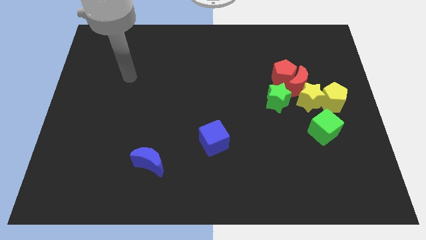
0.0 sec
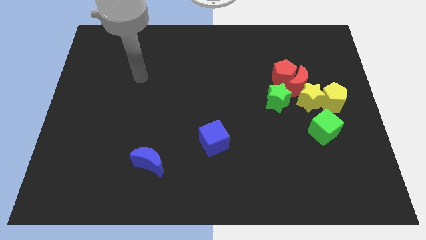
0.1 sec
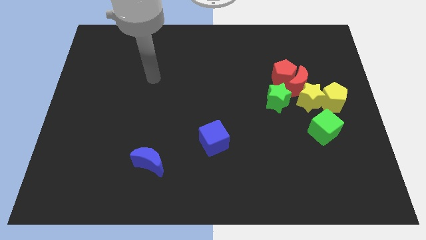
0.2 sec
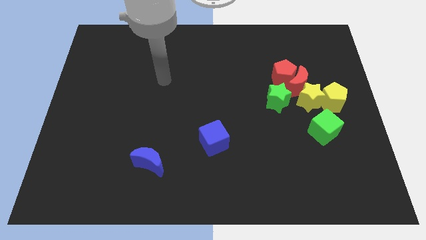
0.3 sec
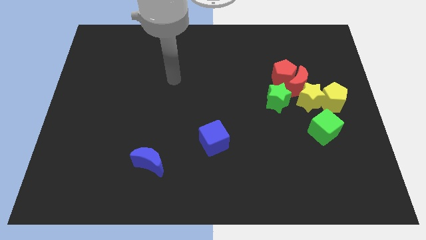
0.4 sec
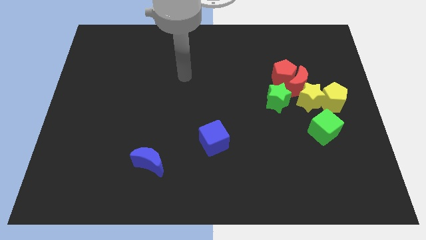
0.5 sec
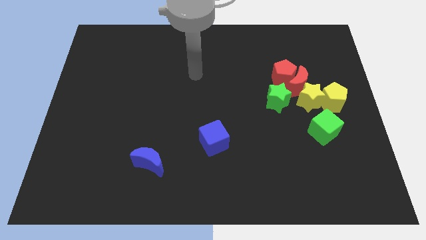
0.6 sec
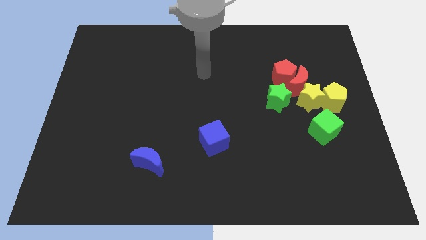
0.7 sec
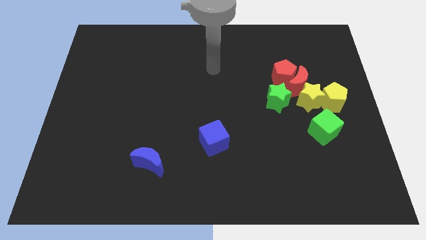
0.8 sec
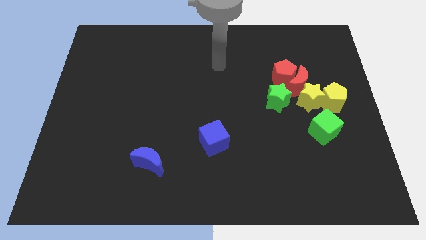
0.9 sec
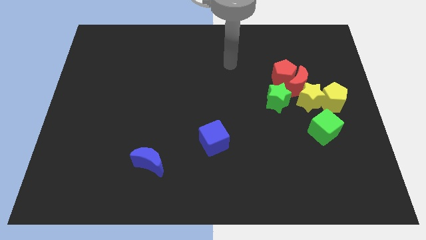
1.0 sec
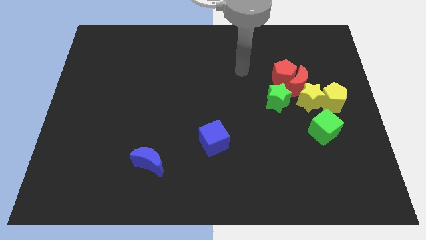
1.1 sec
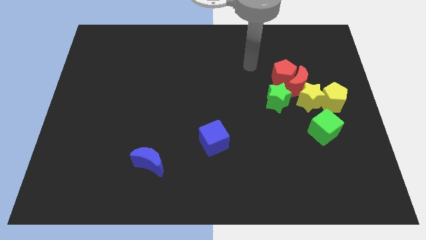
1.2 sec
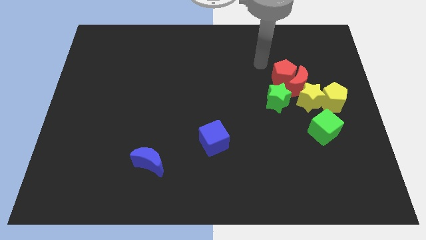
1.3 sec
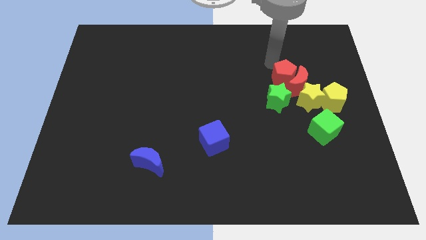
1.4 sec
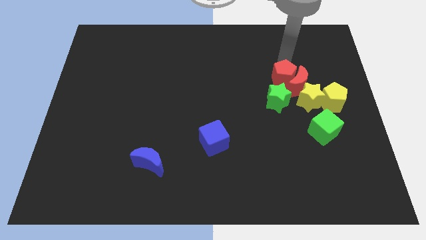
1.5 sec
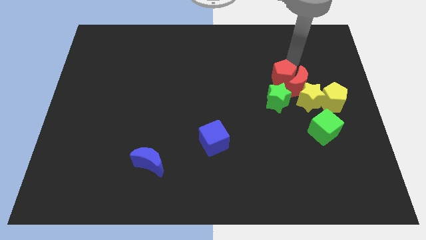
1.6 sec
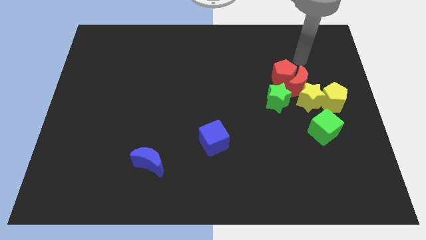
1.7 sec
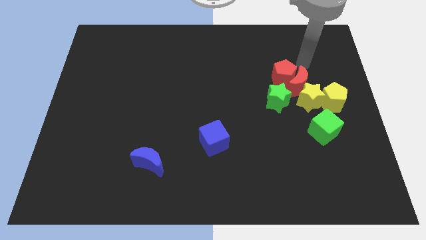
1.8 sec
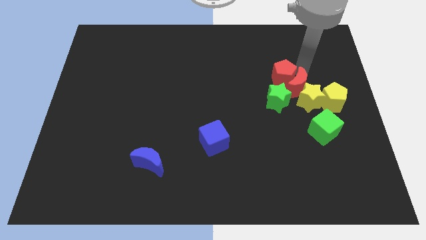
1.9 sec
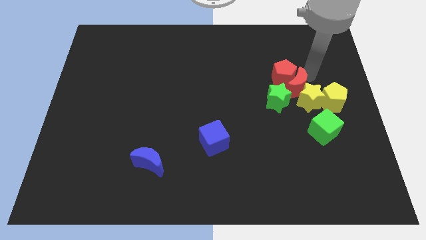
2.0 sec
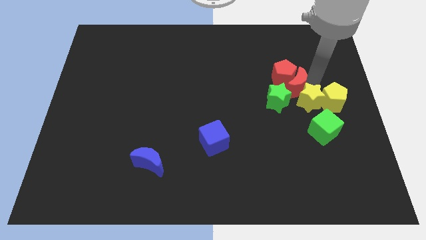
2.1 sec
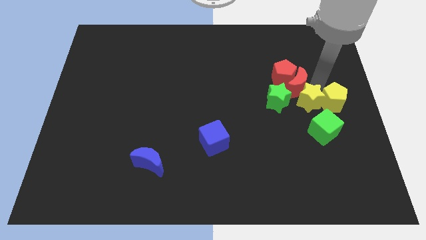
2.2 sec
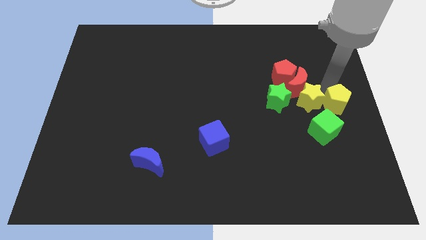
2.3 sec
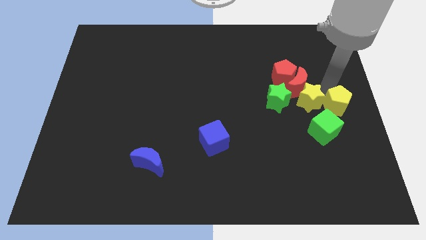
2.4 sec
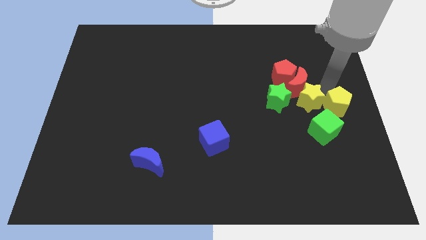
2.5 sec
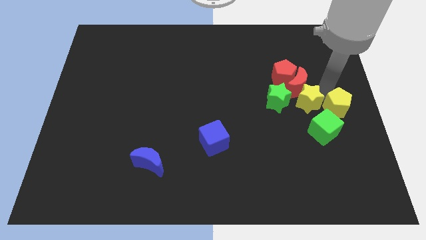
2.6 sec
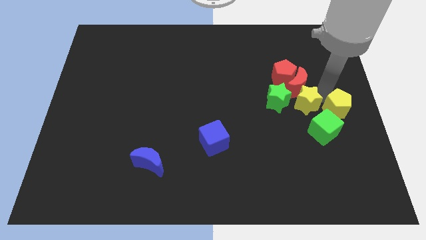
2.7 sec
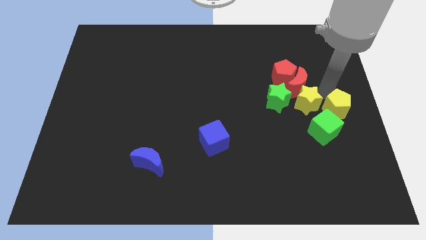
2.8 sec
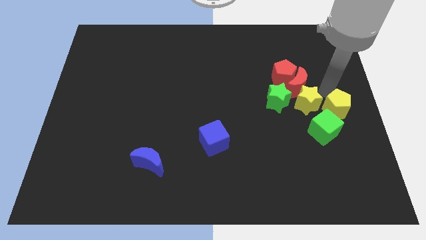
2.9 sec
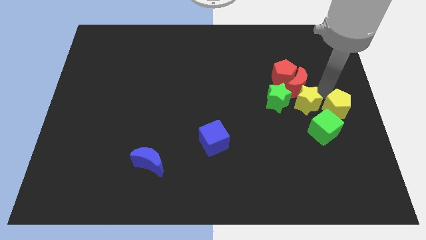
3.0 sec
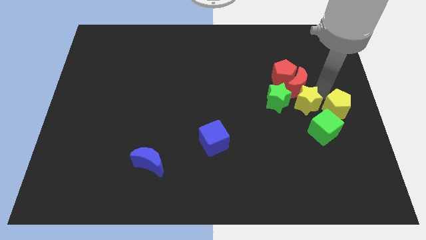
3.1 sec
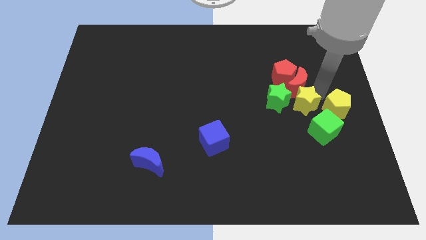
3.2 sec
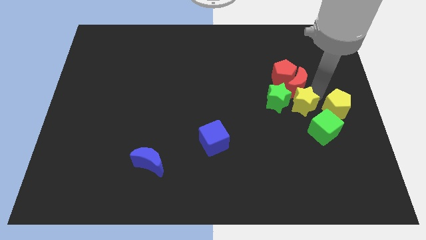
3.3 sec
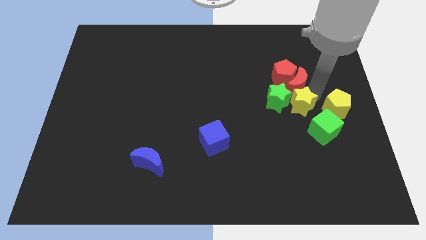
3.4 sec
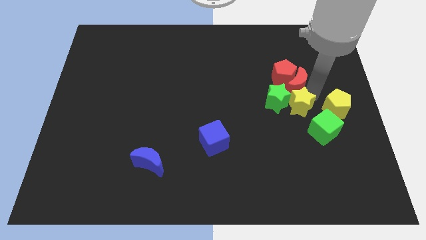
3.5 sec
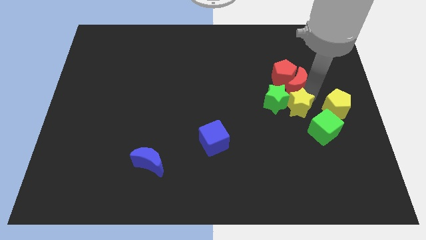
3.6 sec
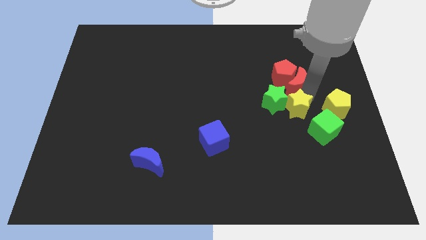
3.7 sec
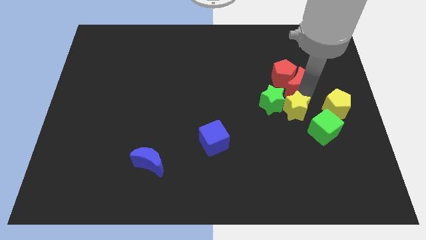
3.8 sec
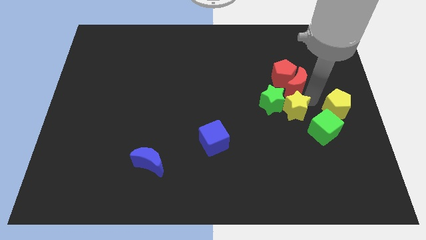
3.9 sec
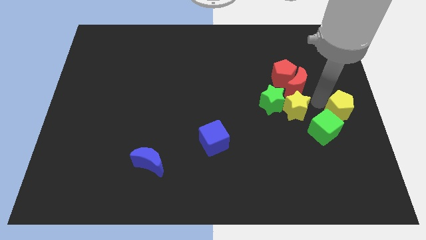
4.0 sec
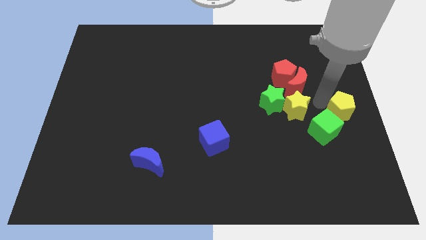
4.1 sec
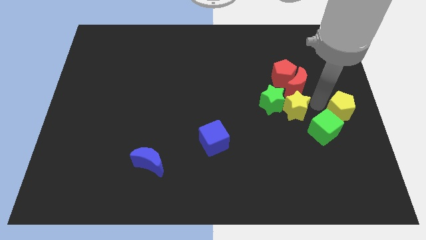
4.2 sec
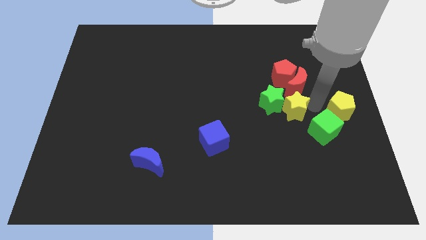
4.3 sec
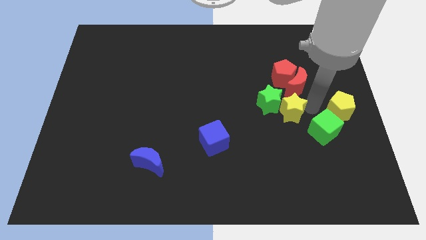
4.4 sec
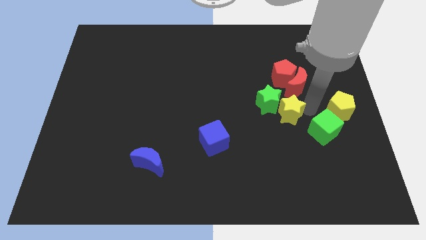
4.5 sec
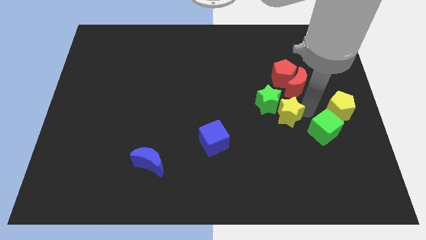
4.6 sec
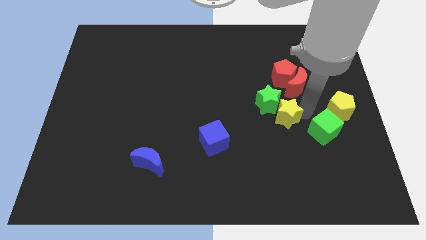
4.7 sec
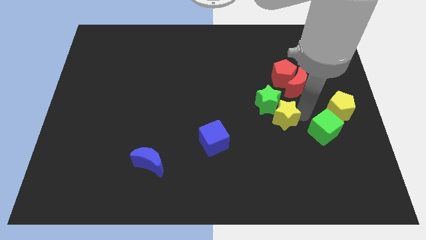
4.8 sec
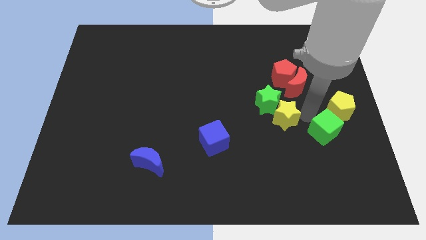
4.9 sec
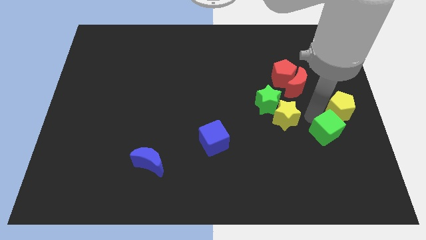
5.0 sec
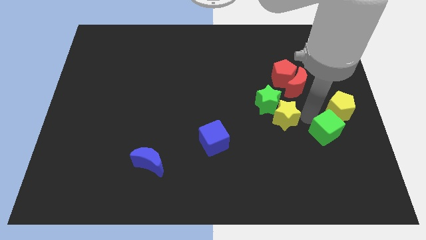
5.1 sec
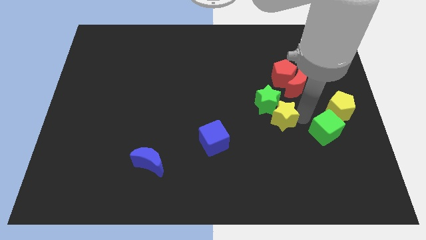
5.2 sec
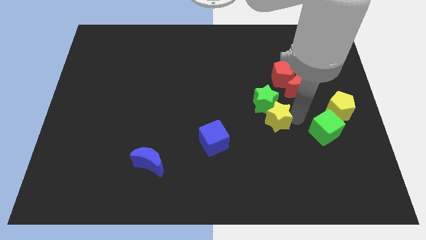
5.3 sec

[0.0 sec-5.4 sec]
push the yellow star left a little bit

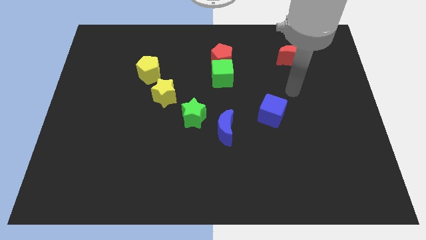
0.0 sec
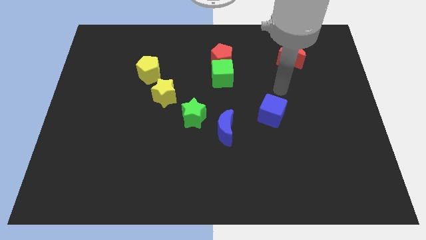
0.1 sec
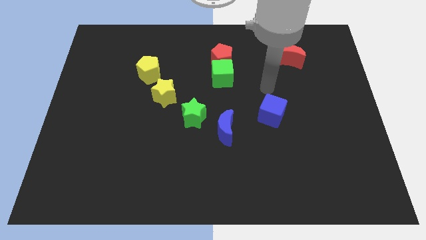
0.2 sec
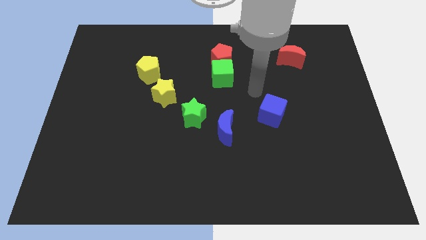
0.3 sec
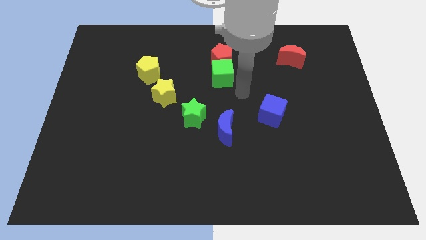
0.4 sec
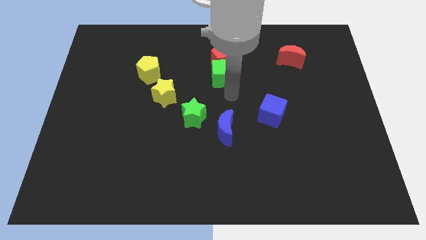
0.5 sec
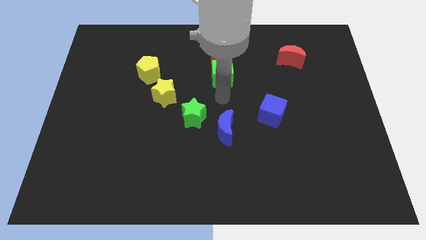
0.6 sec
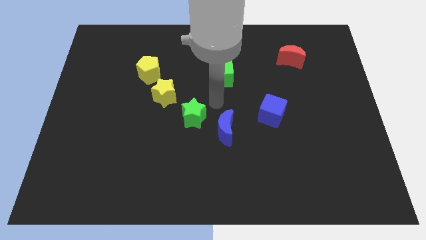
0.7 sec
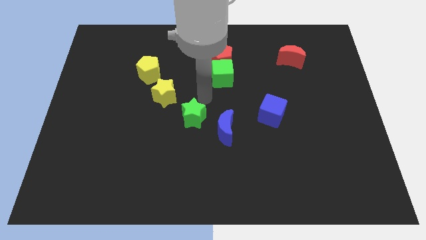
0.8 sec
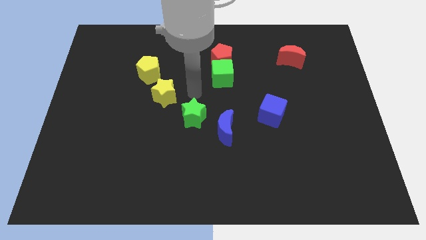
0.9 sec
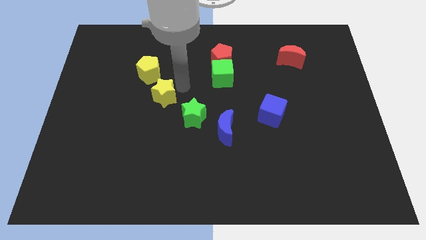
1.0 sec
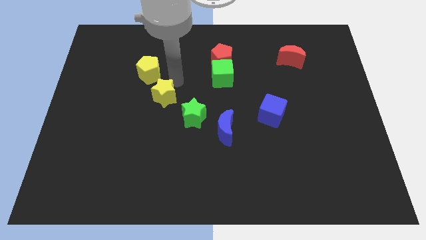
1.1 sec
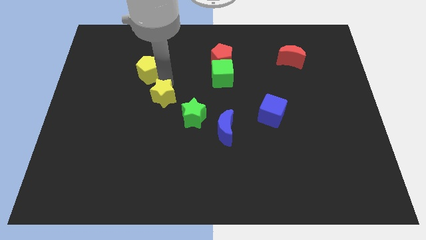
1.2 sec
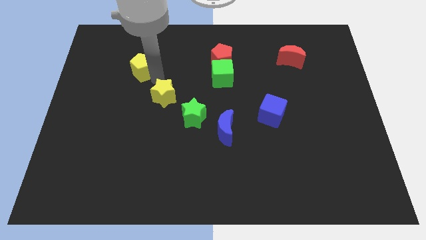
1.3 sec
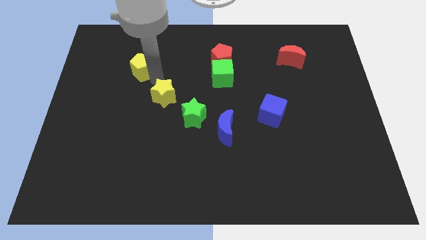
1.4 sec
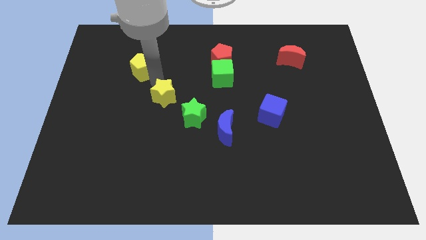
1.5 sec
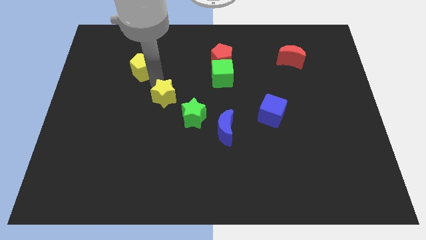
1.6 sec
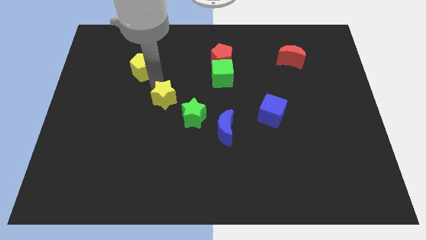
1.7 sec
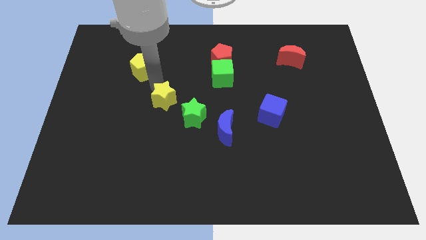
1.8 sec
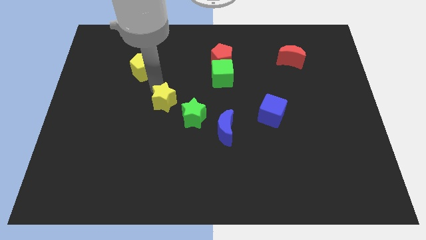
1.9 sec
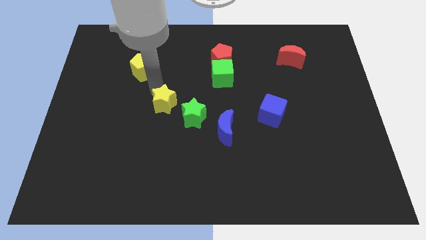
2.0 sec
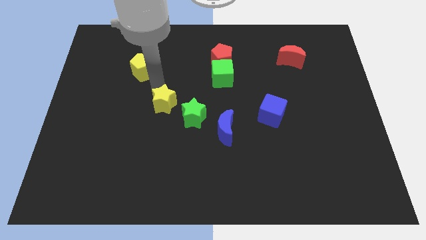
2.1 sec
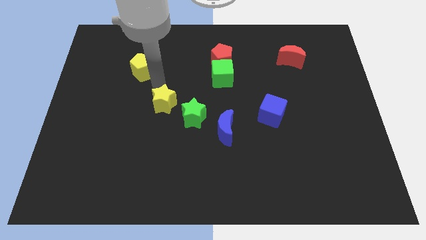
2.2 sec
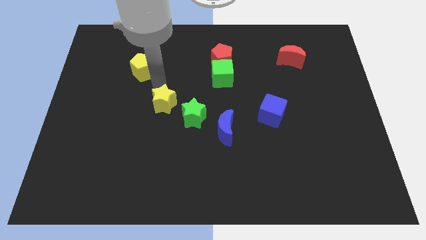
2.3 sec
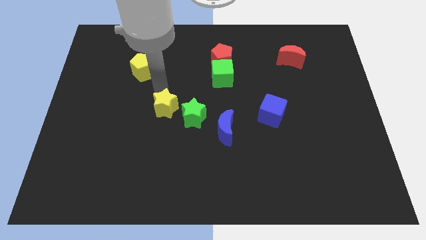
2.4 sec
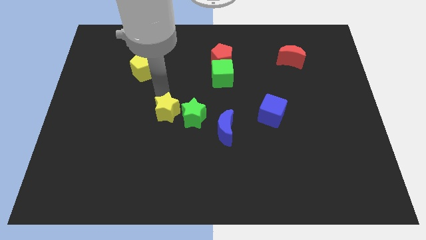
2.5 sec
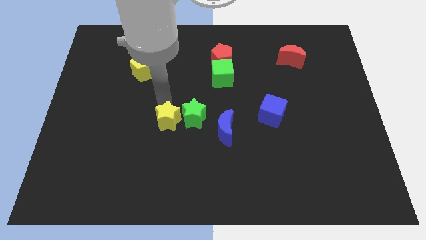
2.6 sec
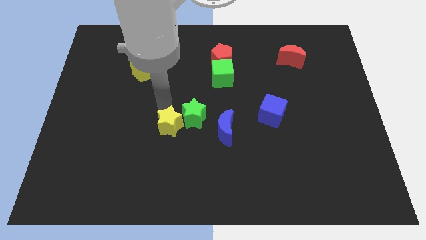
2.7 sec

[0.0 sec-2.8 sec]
slightly push the yellow star diagonally downwards and to the right

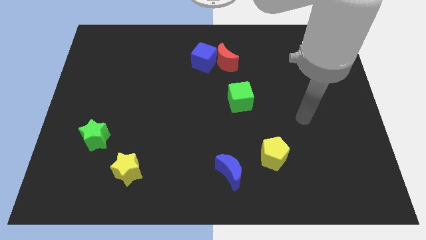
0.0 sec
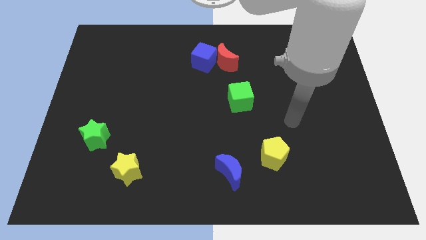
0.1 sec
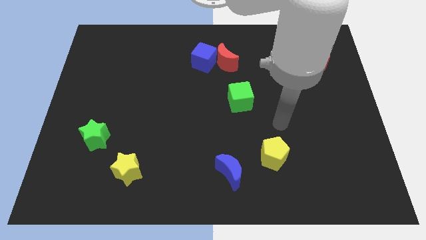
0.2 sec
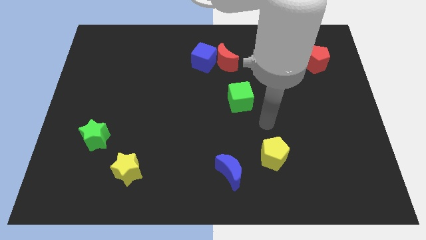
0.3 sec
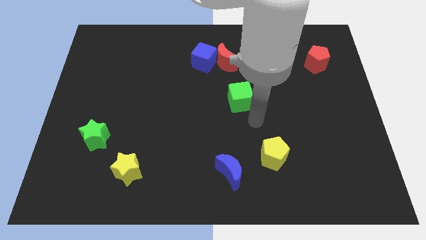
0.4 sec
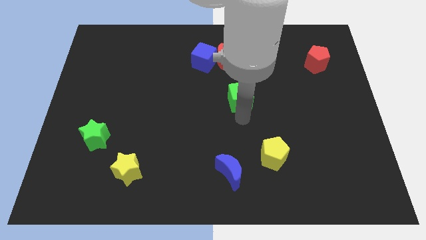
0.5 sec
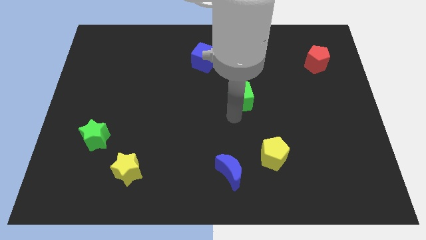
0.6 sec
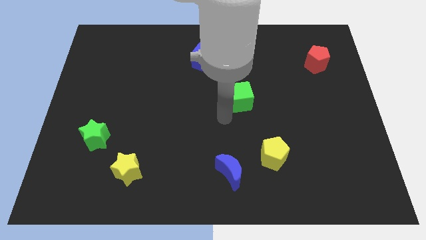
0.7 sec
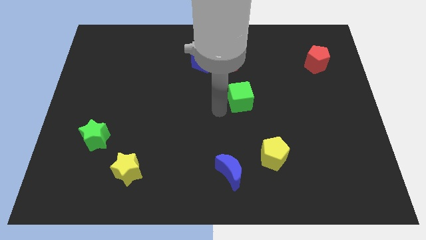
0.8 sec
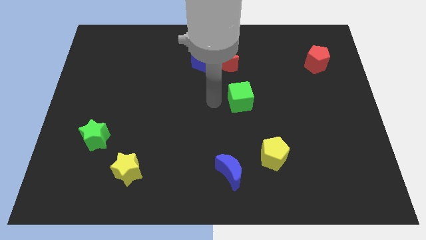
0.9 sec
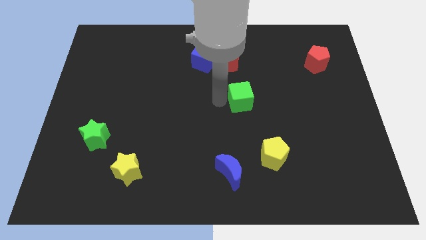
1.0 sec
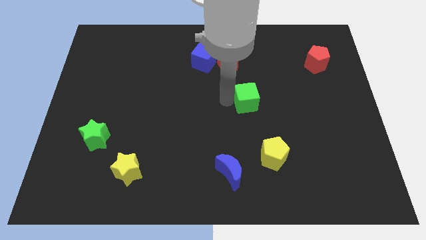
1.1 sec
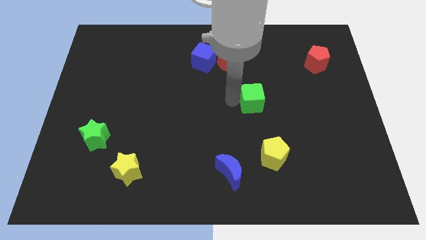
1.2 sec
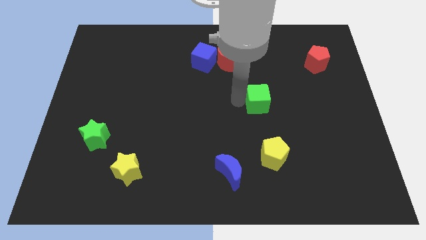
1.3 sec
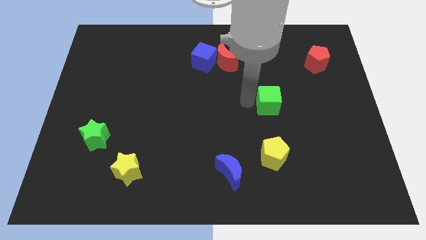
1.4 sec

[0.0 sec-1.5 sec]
push the green cube right a little bit
